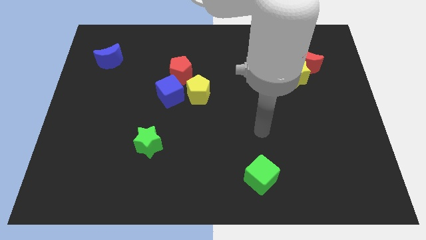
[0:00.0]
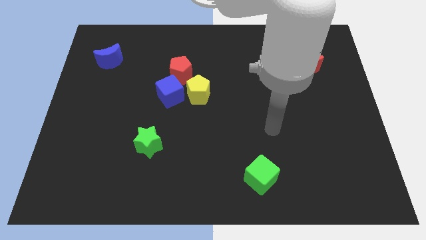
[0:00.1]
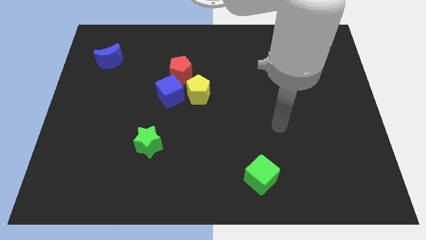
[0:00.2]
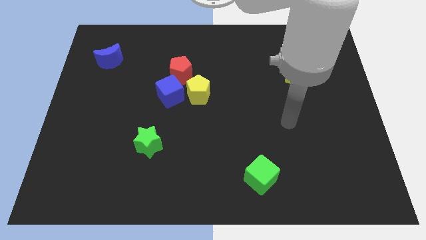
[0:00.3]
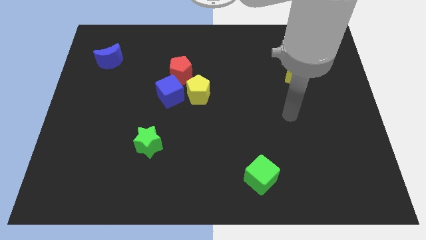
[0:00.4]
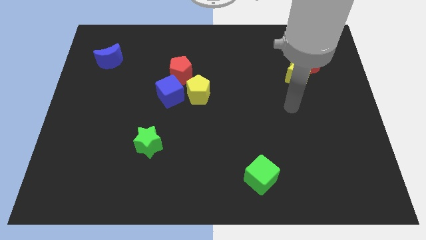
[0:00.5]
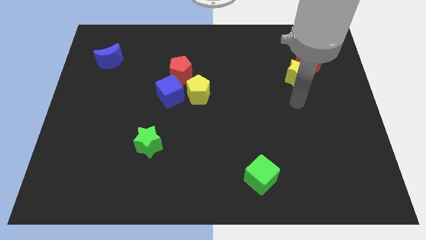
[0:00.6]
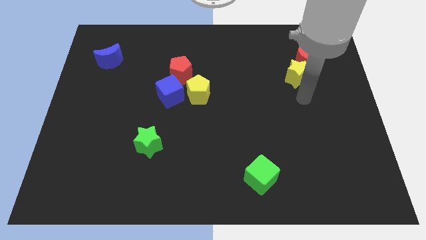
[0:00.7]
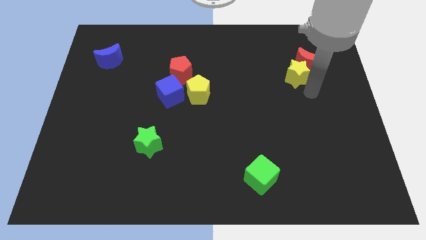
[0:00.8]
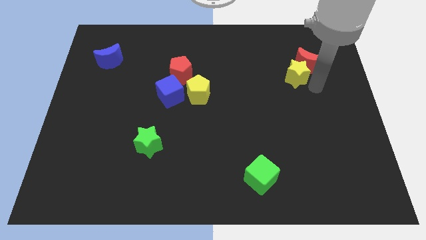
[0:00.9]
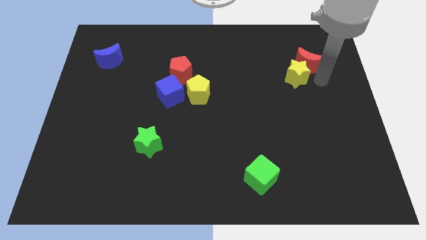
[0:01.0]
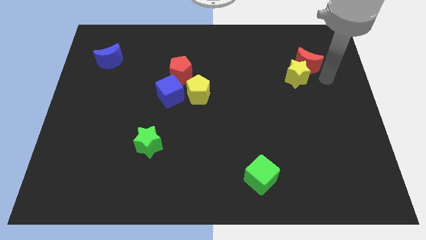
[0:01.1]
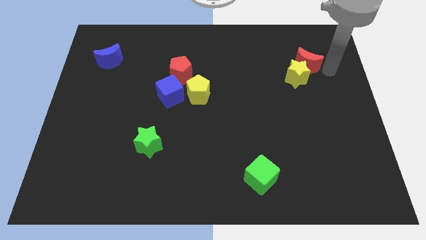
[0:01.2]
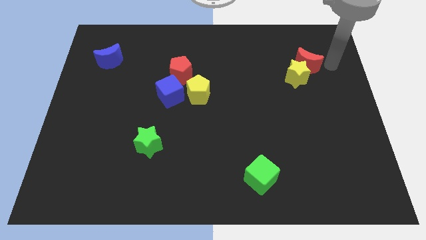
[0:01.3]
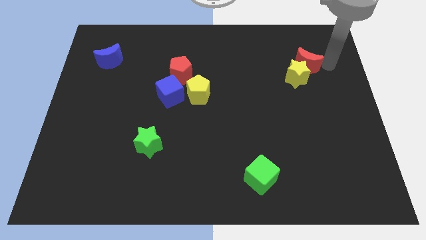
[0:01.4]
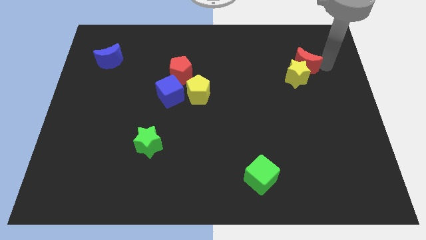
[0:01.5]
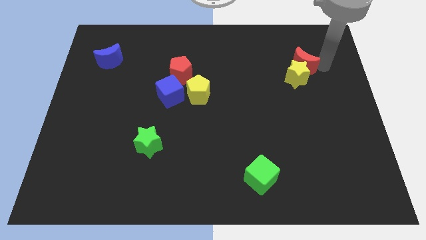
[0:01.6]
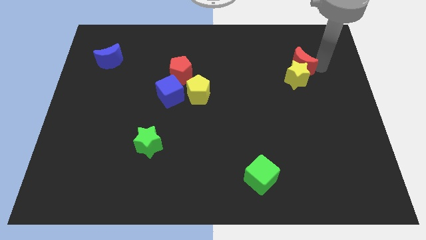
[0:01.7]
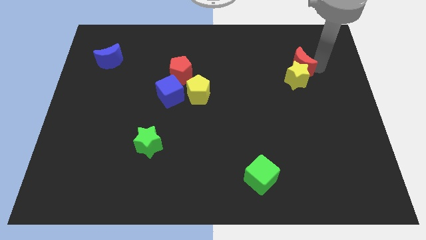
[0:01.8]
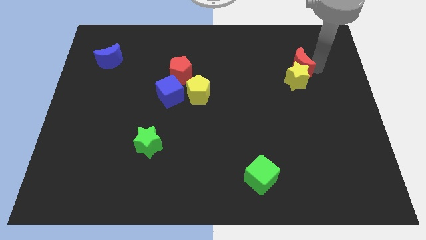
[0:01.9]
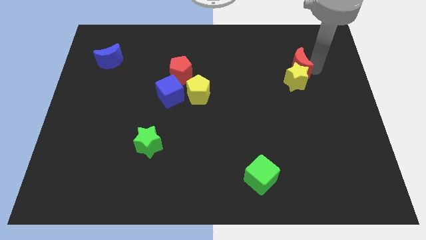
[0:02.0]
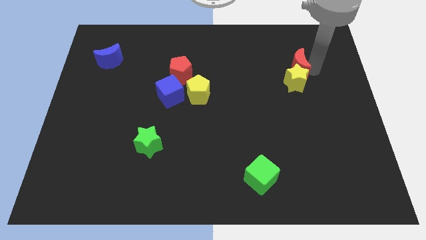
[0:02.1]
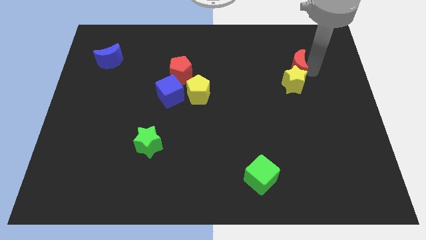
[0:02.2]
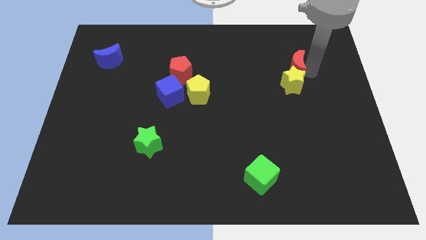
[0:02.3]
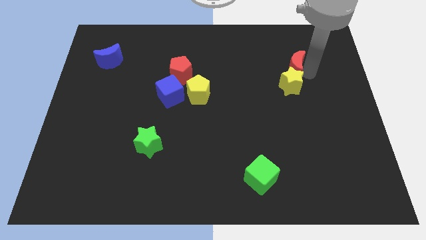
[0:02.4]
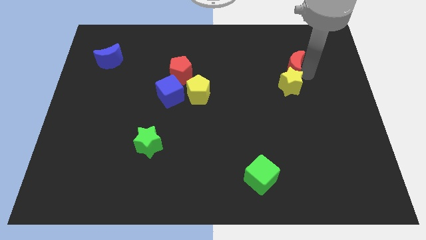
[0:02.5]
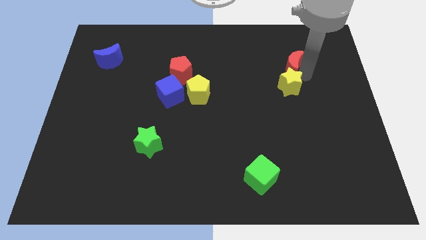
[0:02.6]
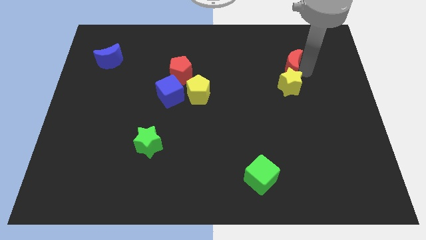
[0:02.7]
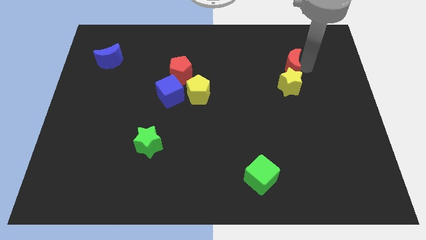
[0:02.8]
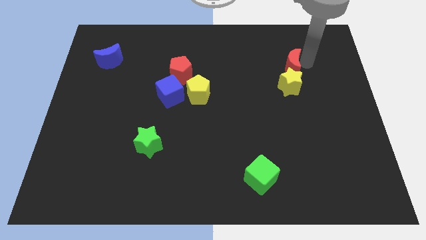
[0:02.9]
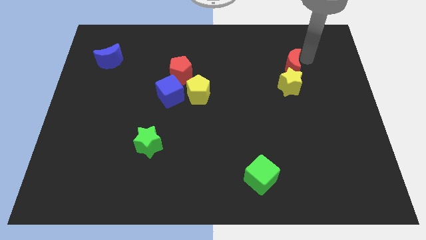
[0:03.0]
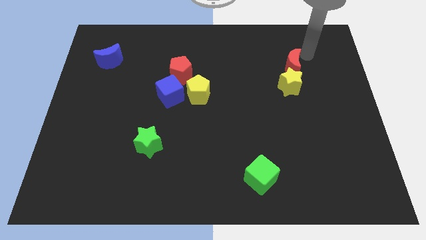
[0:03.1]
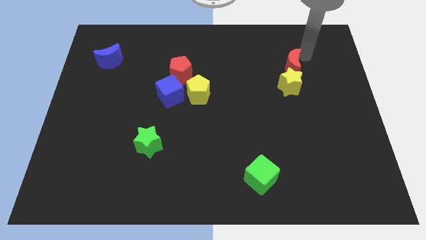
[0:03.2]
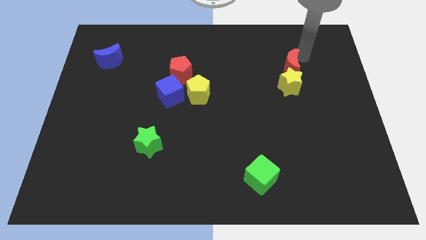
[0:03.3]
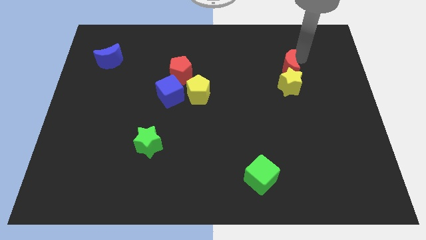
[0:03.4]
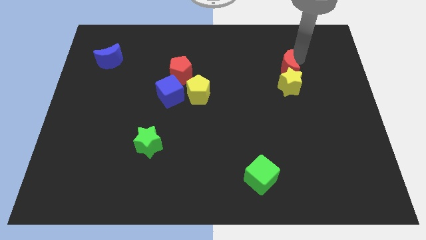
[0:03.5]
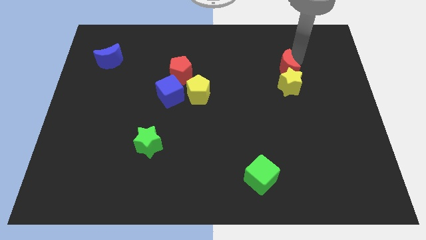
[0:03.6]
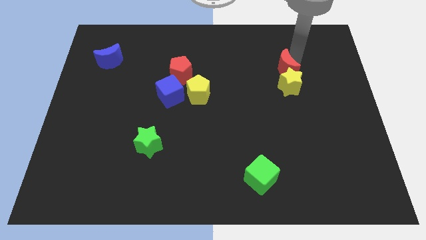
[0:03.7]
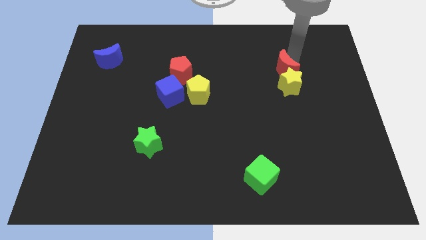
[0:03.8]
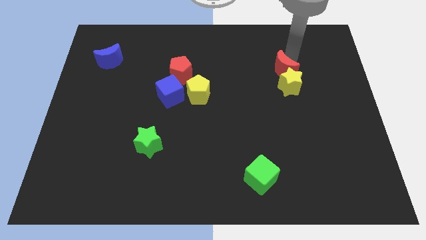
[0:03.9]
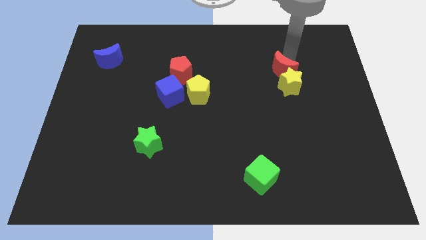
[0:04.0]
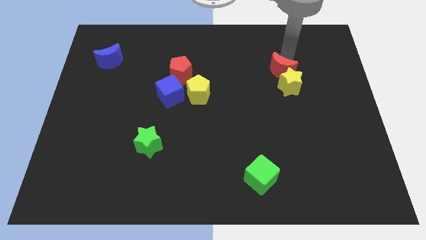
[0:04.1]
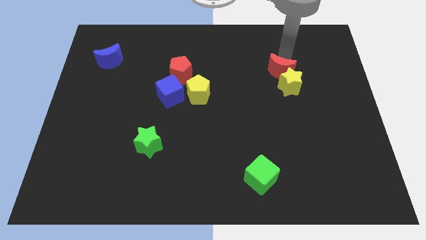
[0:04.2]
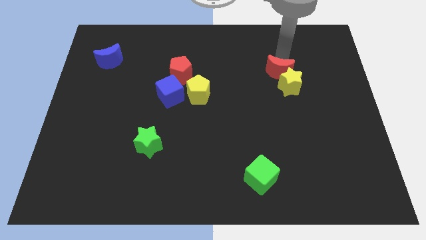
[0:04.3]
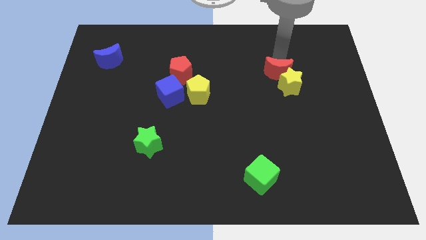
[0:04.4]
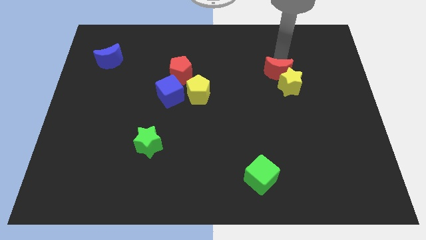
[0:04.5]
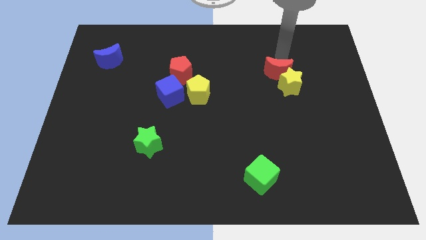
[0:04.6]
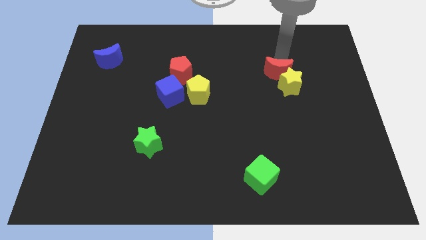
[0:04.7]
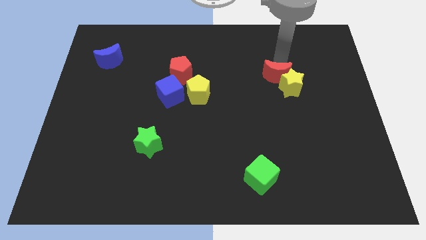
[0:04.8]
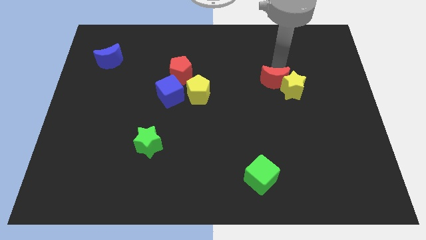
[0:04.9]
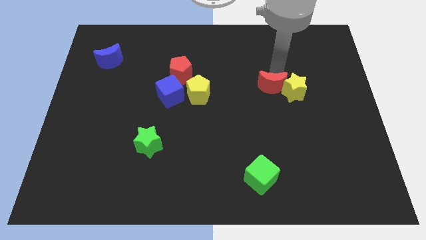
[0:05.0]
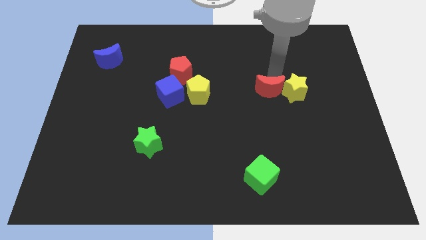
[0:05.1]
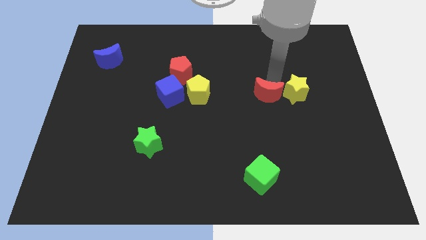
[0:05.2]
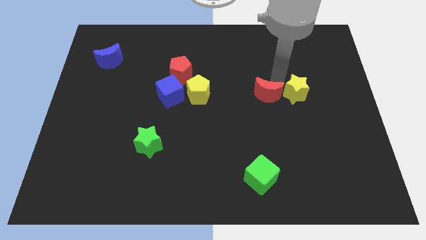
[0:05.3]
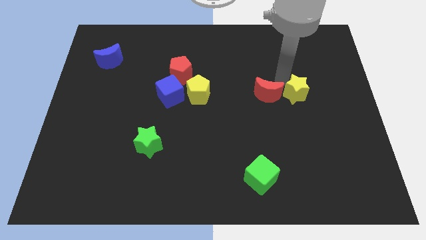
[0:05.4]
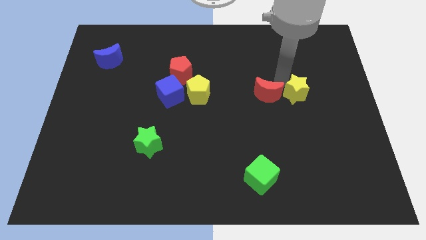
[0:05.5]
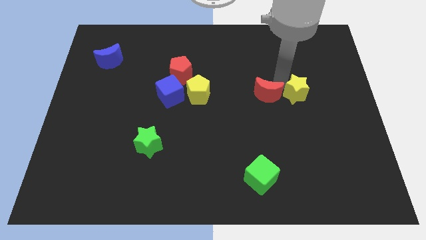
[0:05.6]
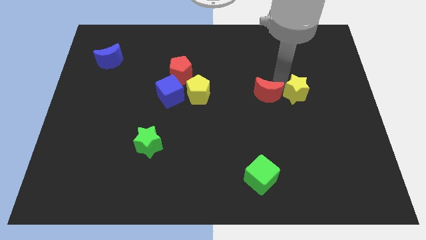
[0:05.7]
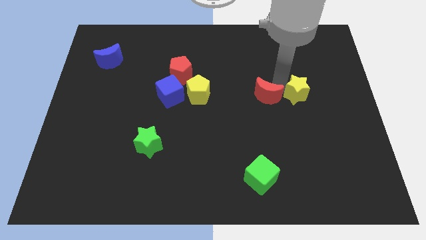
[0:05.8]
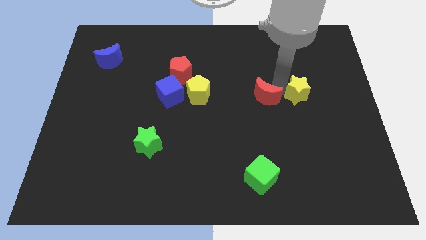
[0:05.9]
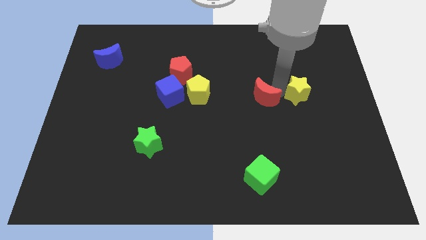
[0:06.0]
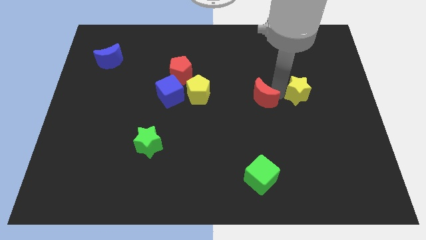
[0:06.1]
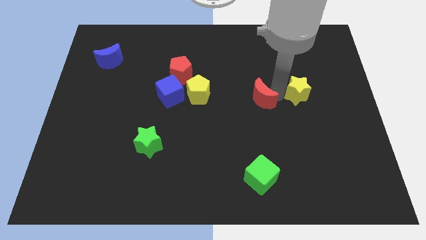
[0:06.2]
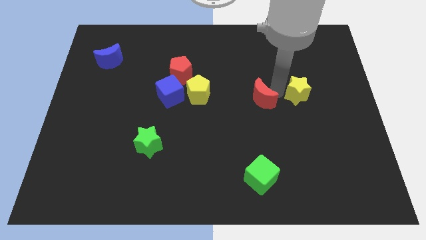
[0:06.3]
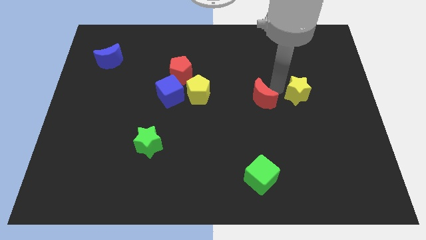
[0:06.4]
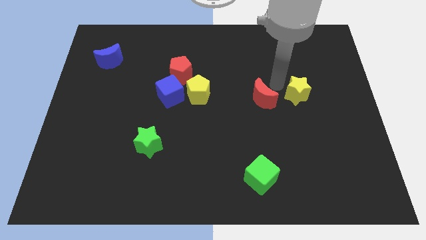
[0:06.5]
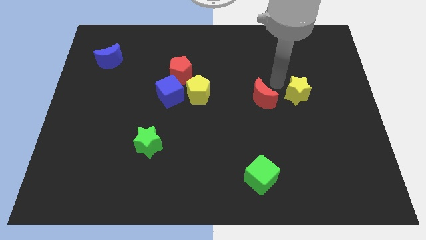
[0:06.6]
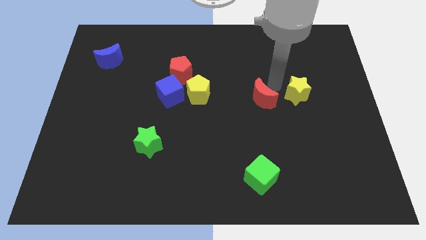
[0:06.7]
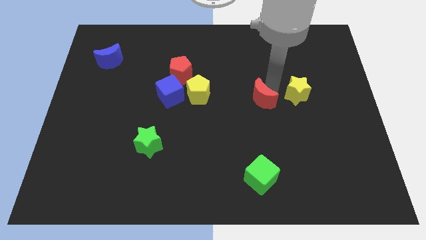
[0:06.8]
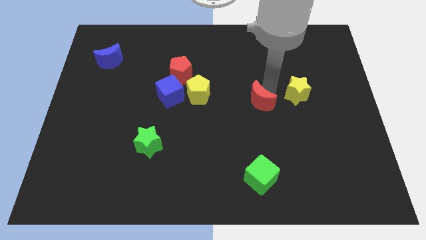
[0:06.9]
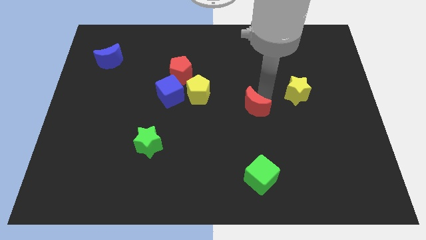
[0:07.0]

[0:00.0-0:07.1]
move the red moon down and left diagonally

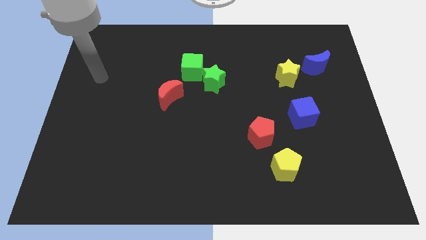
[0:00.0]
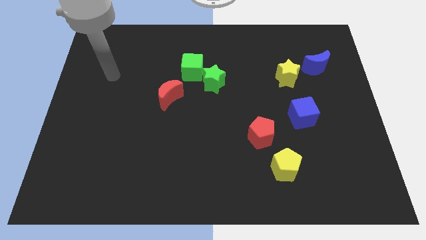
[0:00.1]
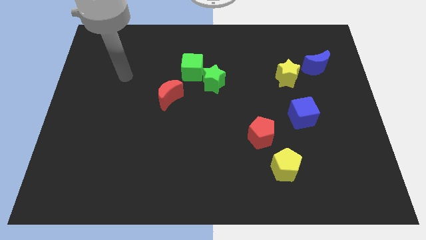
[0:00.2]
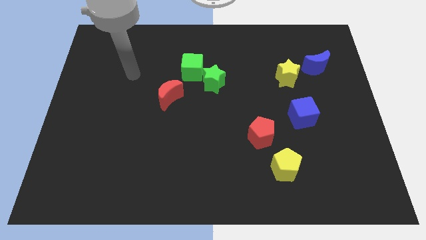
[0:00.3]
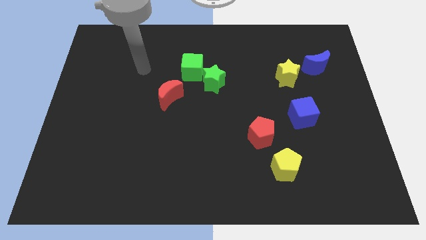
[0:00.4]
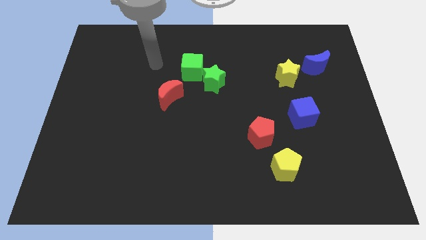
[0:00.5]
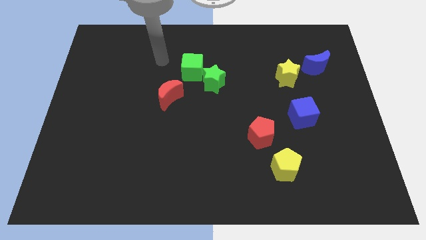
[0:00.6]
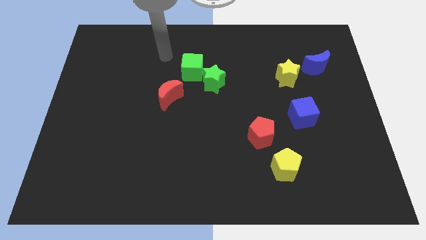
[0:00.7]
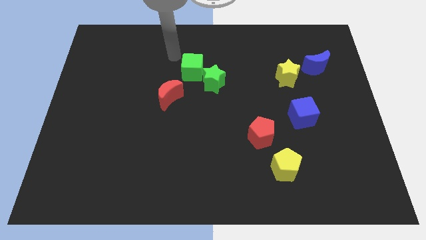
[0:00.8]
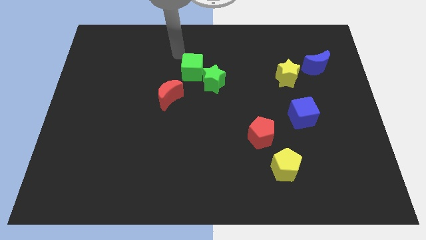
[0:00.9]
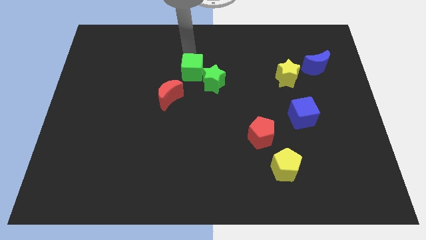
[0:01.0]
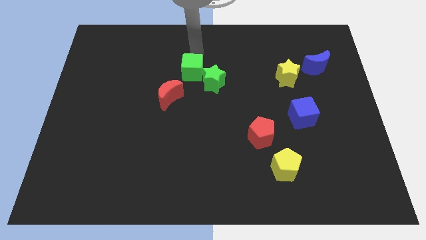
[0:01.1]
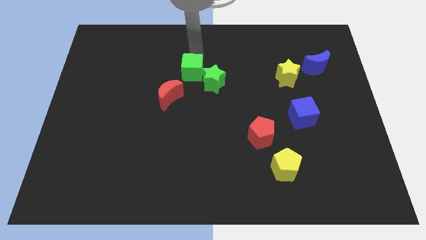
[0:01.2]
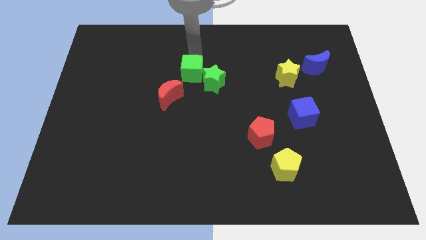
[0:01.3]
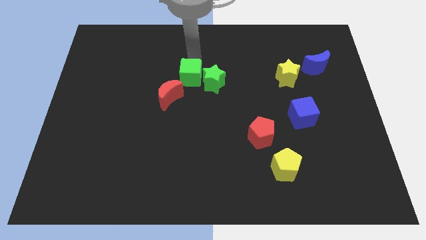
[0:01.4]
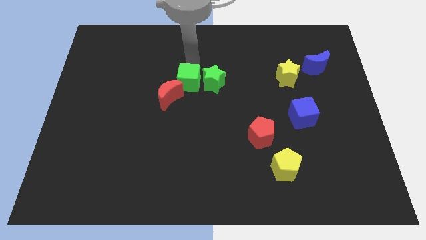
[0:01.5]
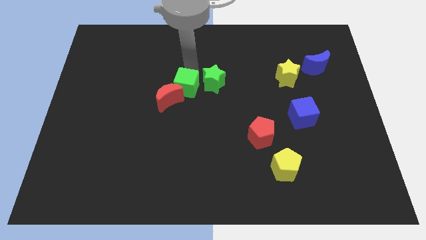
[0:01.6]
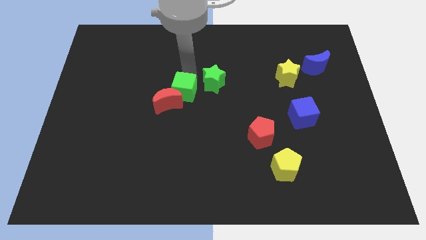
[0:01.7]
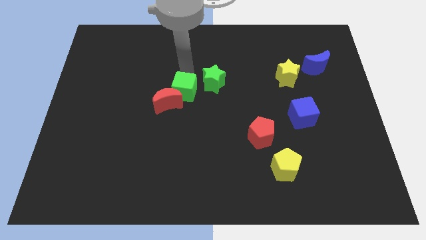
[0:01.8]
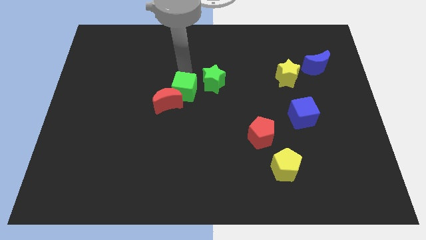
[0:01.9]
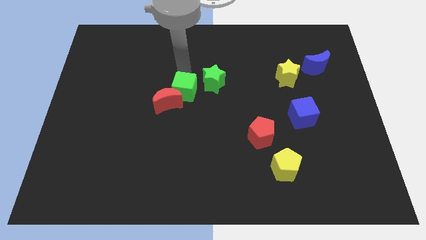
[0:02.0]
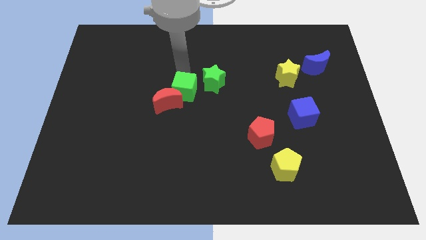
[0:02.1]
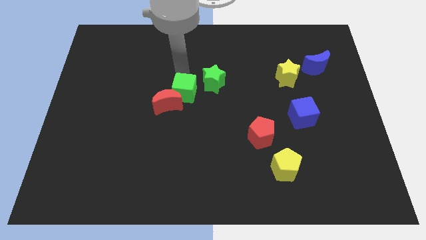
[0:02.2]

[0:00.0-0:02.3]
move the green cube down slightly
